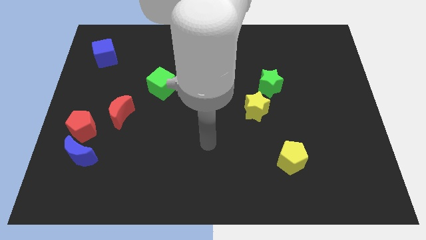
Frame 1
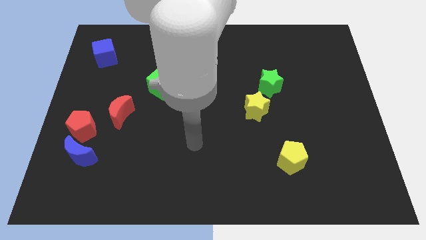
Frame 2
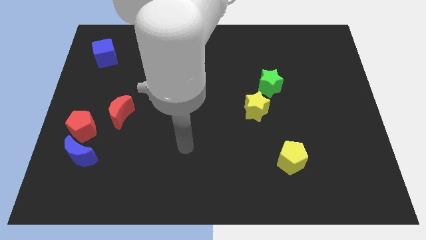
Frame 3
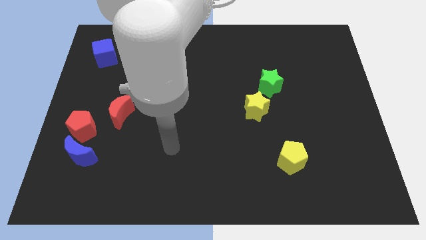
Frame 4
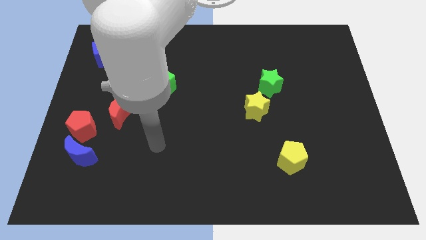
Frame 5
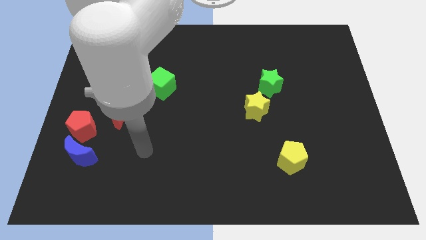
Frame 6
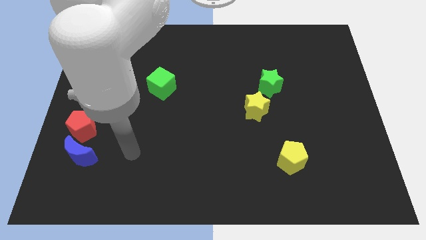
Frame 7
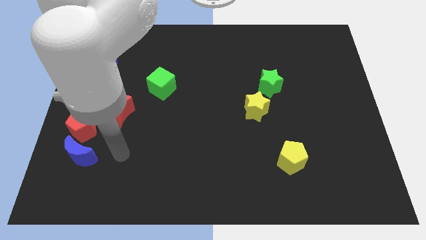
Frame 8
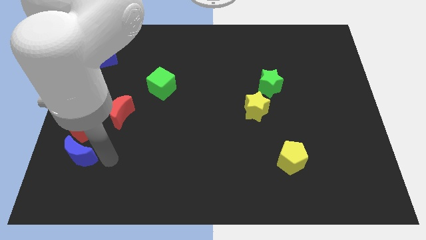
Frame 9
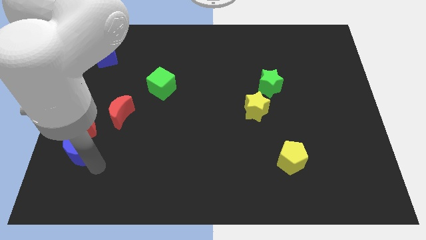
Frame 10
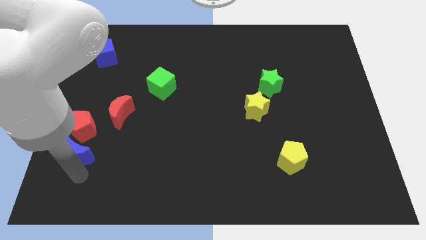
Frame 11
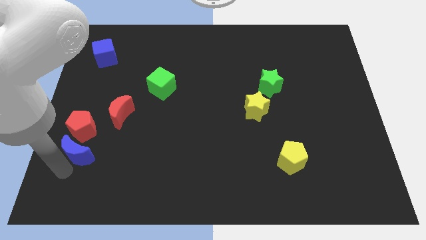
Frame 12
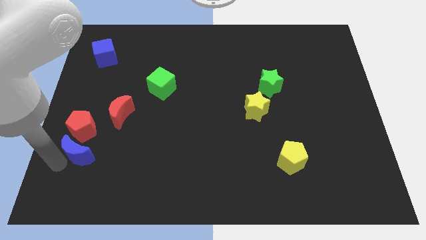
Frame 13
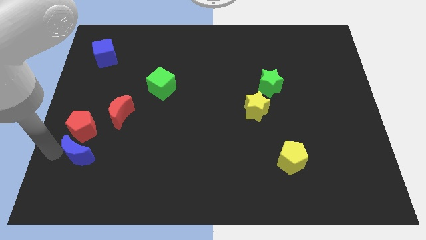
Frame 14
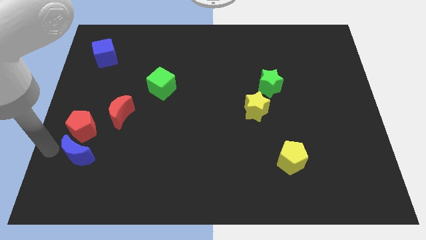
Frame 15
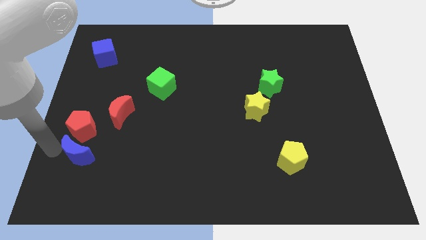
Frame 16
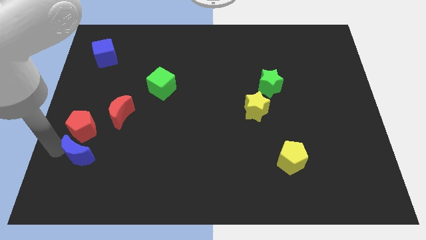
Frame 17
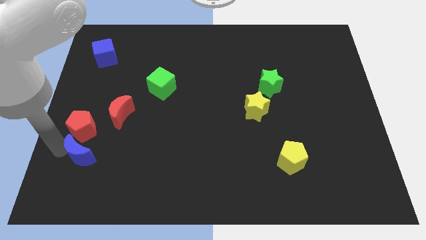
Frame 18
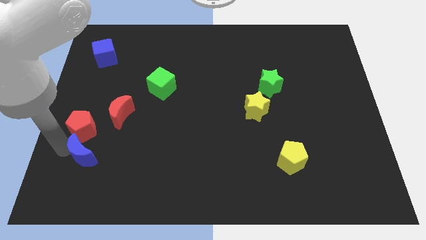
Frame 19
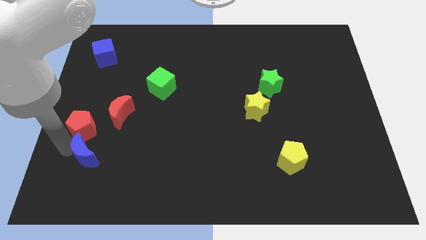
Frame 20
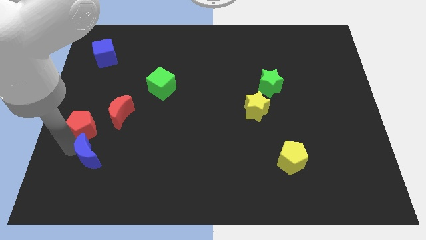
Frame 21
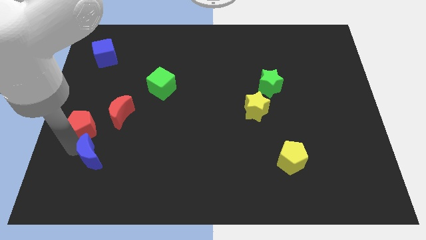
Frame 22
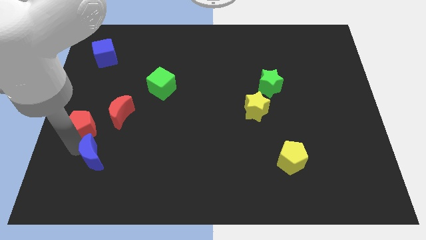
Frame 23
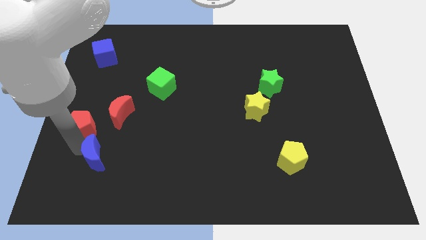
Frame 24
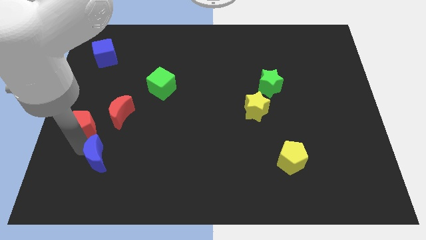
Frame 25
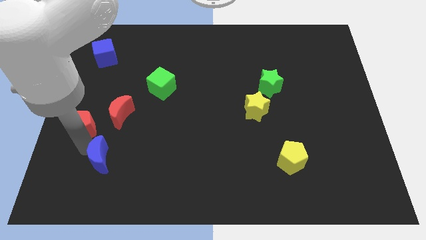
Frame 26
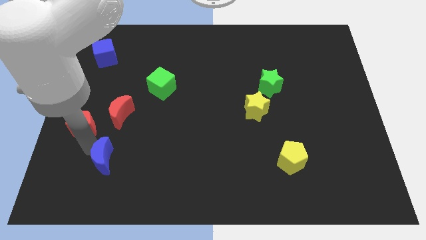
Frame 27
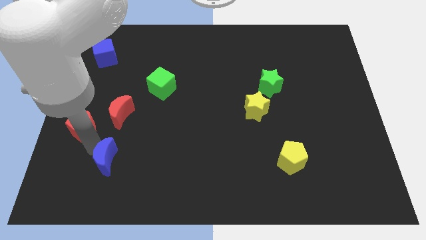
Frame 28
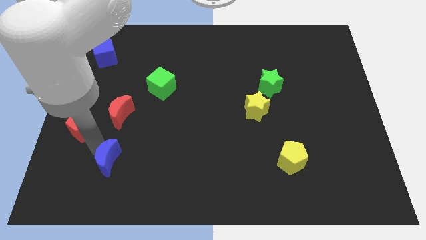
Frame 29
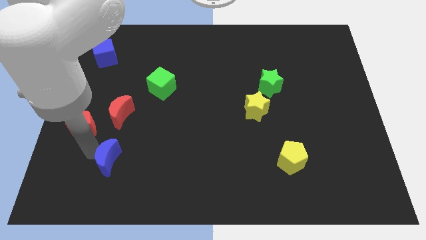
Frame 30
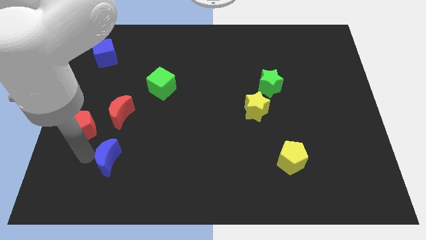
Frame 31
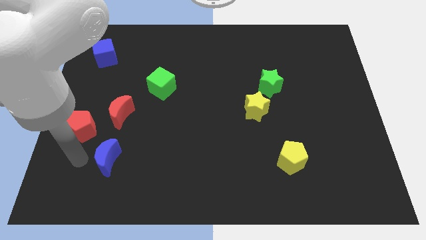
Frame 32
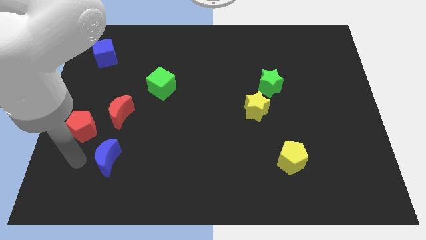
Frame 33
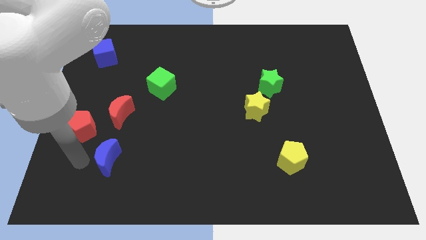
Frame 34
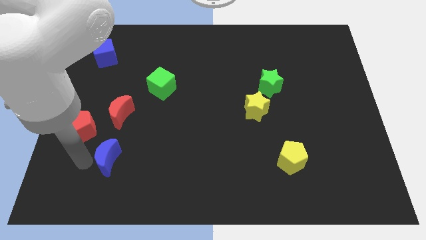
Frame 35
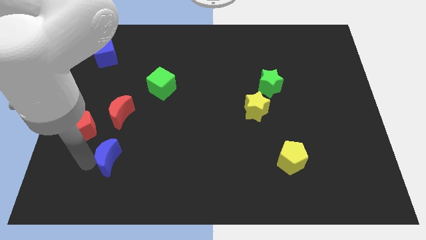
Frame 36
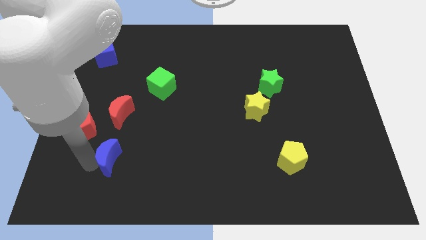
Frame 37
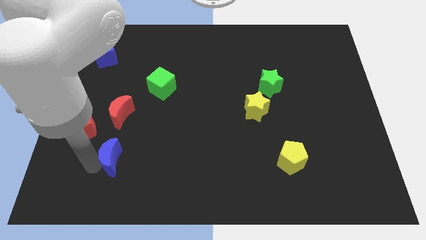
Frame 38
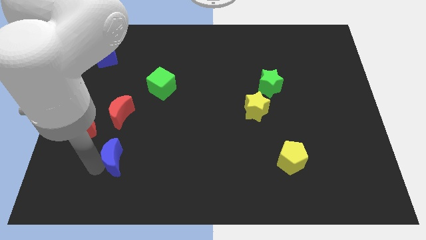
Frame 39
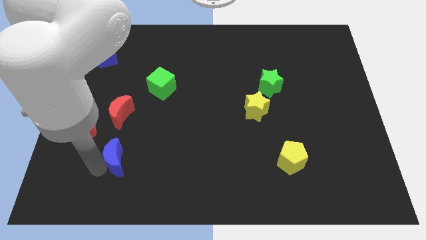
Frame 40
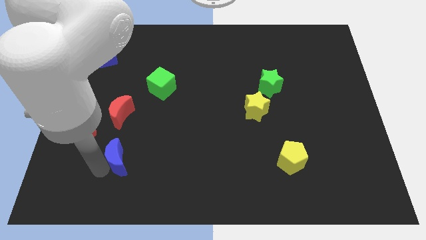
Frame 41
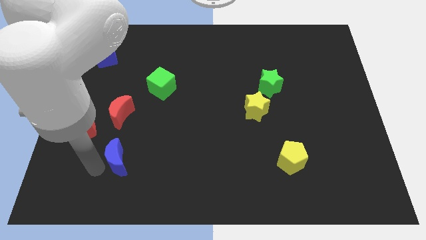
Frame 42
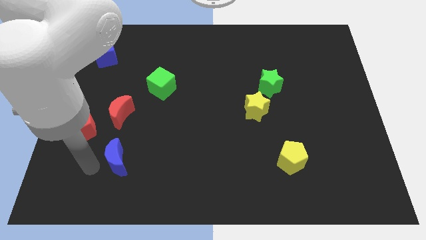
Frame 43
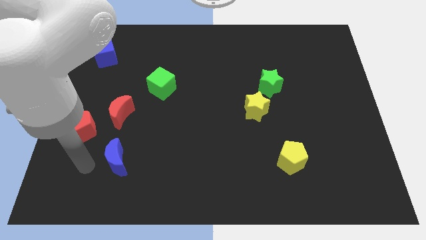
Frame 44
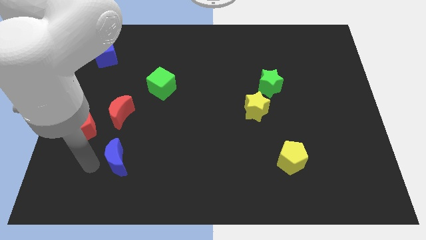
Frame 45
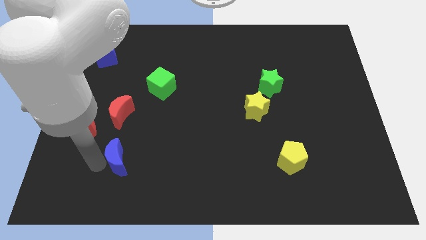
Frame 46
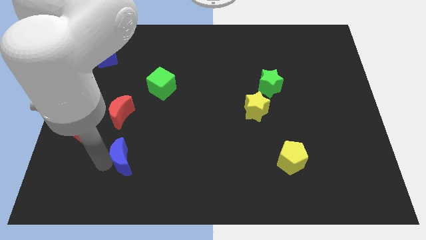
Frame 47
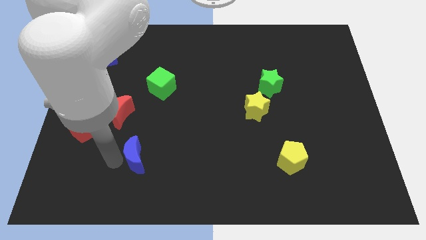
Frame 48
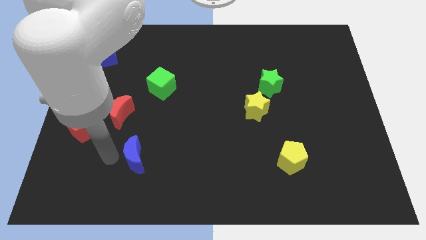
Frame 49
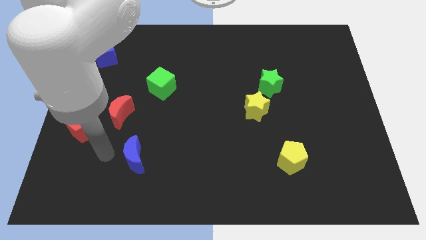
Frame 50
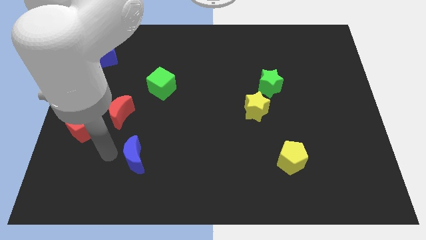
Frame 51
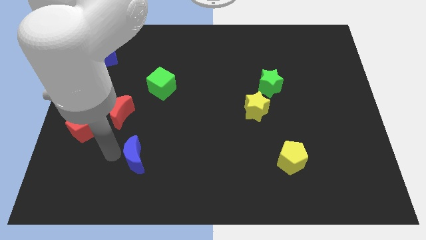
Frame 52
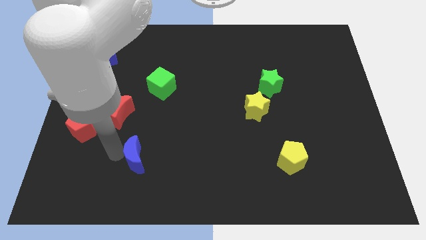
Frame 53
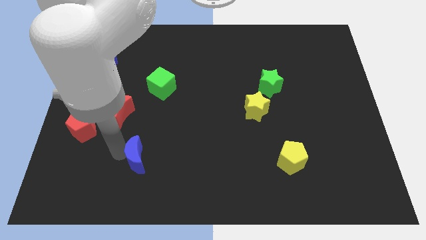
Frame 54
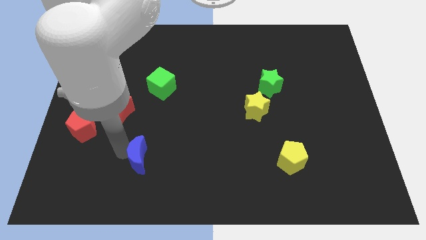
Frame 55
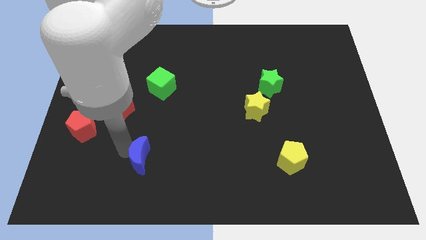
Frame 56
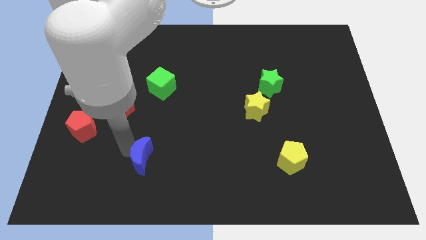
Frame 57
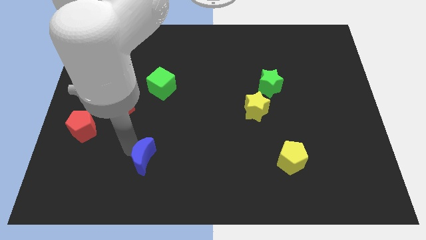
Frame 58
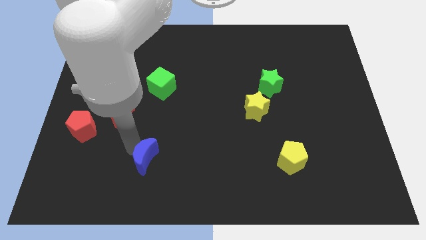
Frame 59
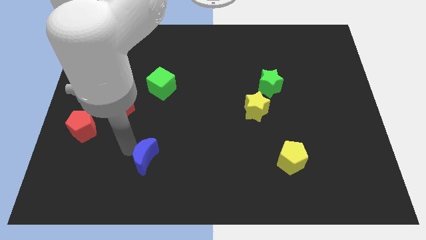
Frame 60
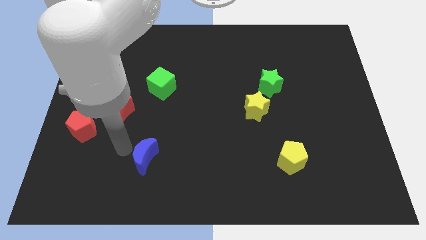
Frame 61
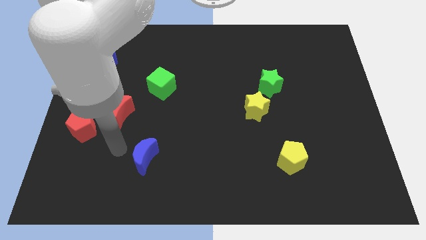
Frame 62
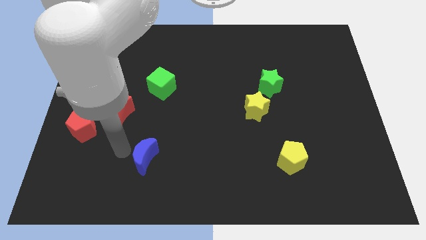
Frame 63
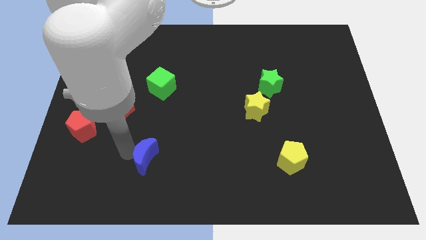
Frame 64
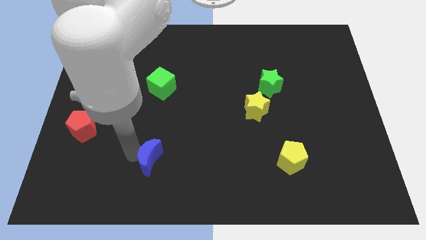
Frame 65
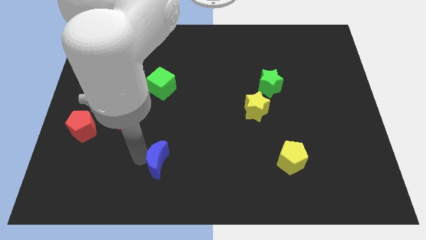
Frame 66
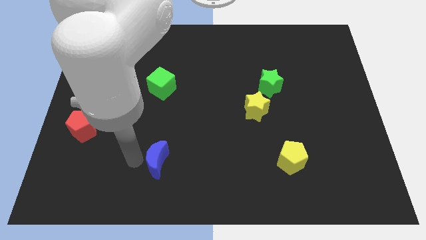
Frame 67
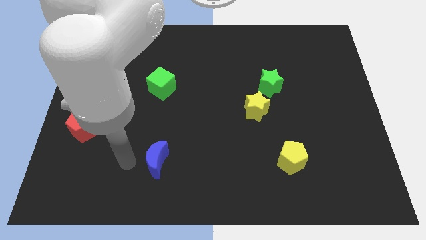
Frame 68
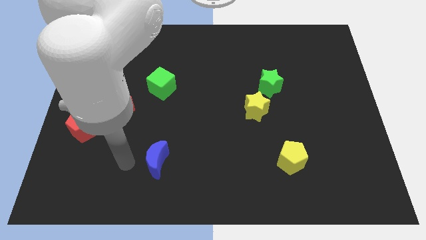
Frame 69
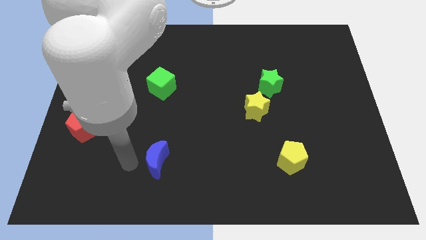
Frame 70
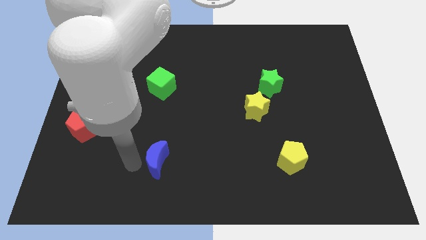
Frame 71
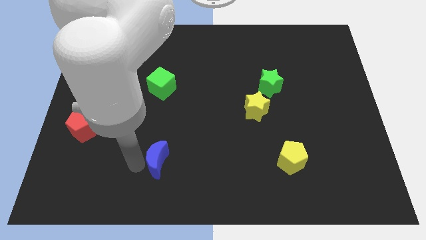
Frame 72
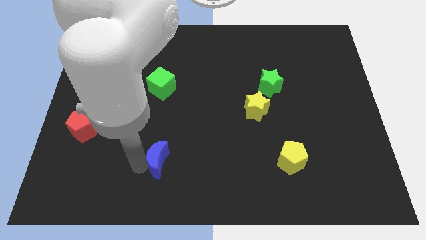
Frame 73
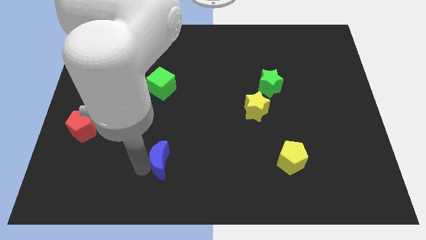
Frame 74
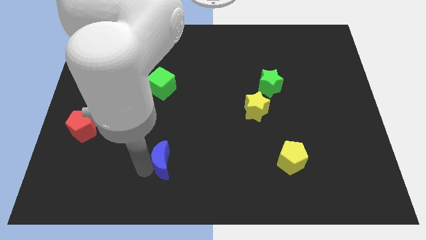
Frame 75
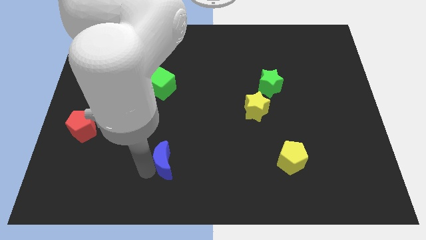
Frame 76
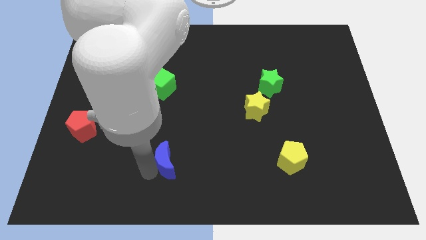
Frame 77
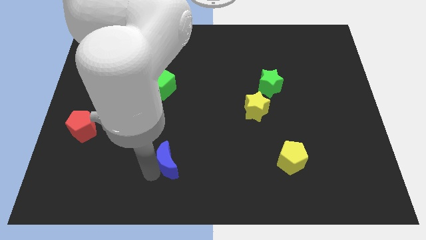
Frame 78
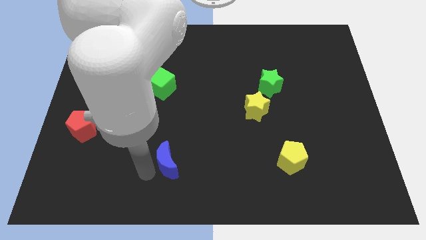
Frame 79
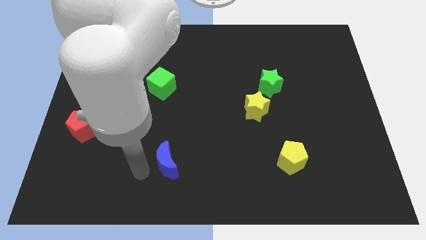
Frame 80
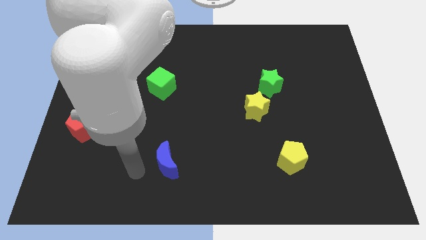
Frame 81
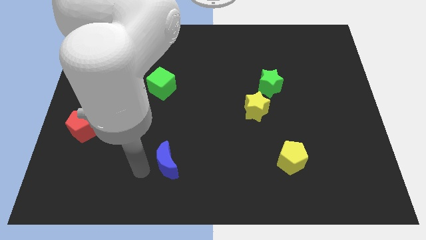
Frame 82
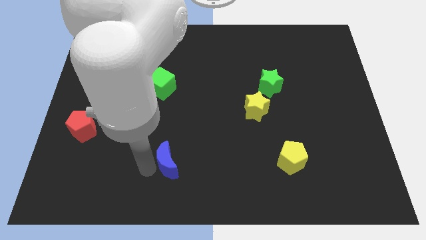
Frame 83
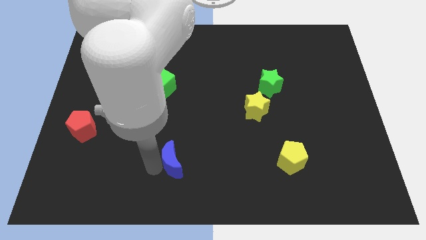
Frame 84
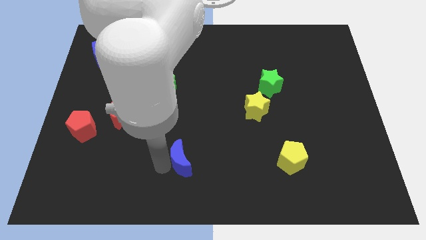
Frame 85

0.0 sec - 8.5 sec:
push the blue moon right
